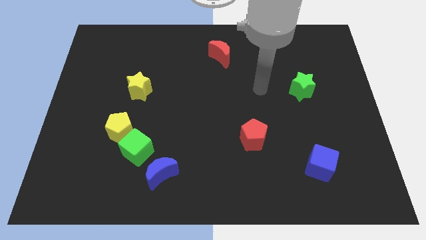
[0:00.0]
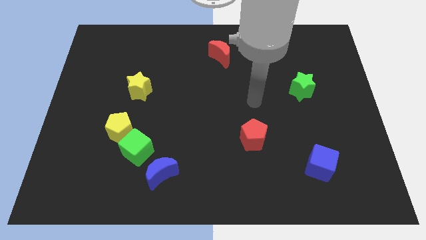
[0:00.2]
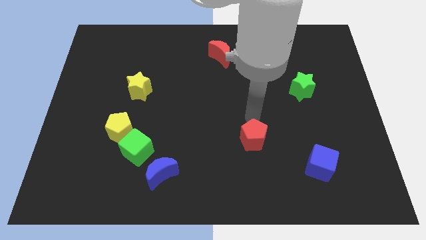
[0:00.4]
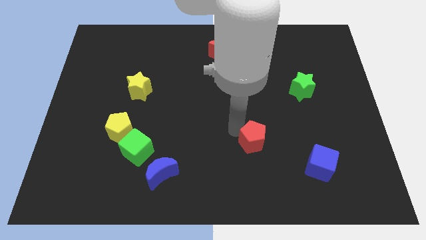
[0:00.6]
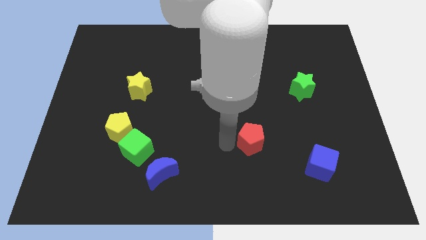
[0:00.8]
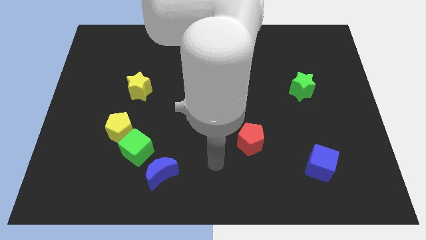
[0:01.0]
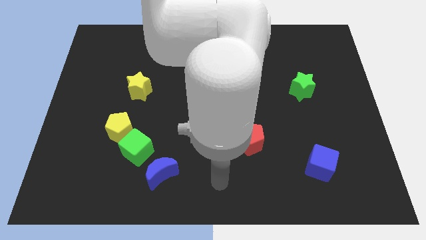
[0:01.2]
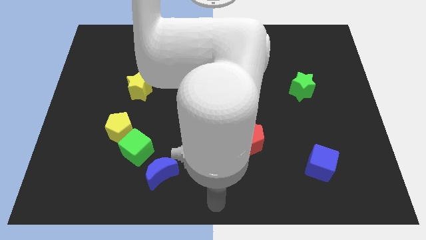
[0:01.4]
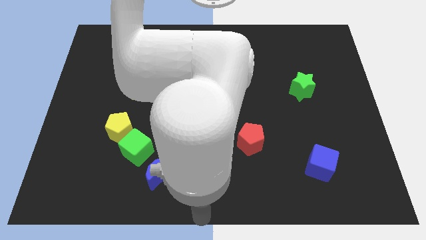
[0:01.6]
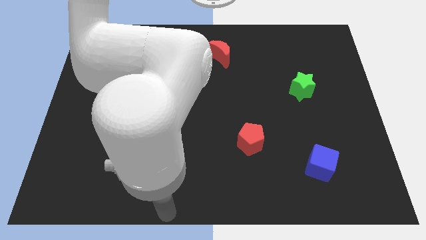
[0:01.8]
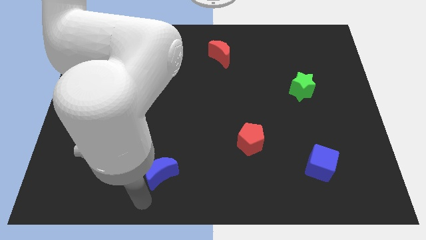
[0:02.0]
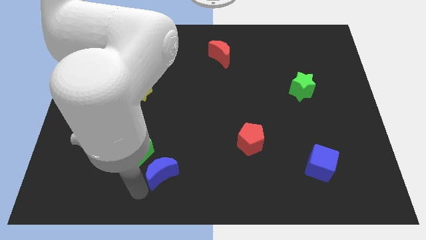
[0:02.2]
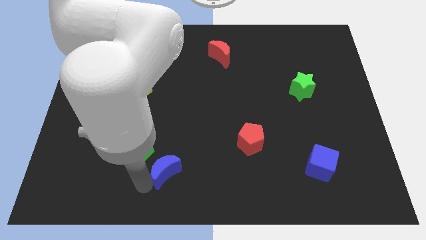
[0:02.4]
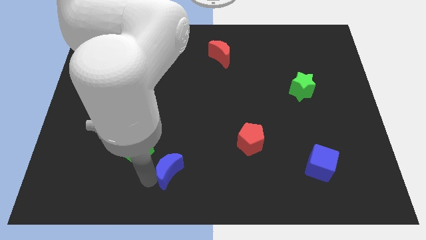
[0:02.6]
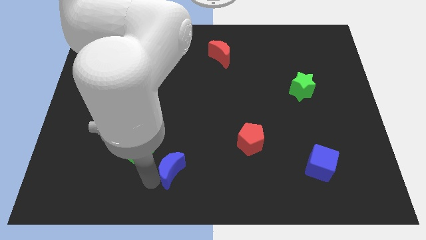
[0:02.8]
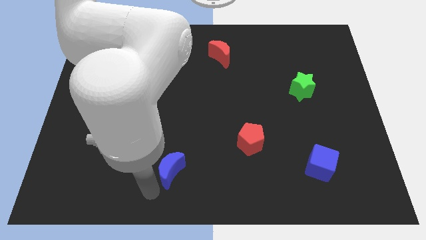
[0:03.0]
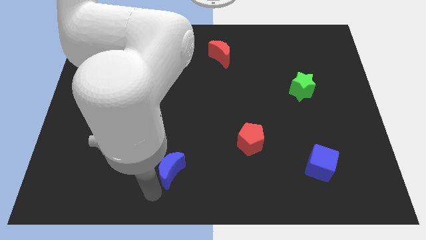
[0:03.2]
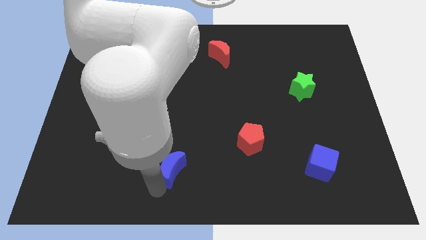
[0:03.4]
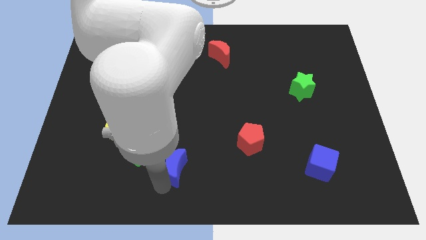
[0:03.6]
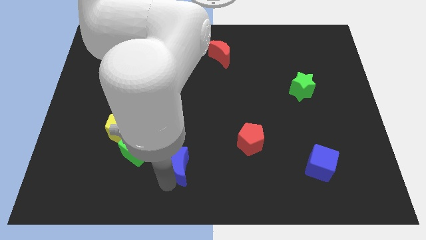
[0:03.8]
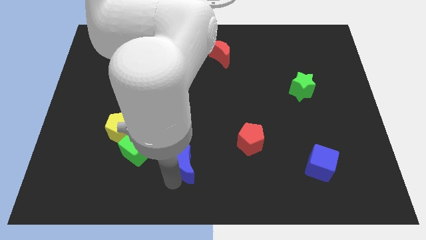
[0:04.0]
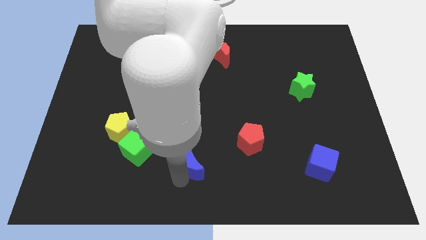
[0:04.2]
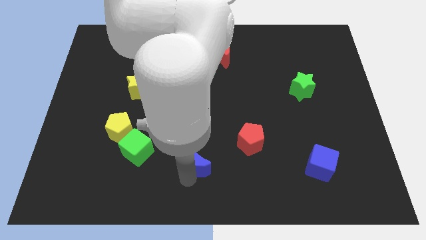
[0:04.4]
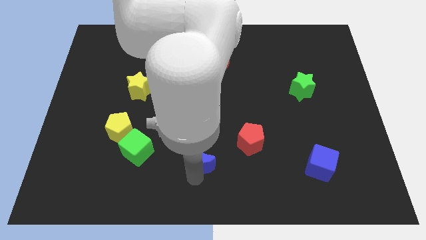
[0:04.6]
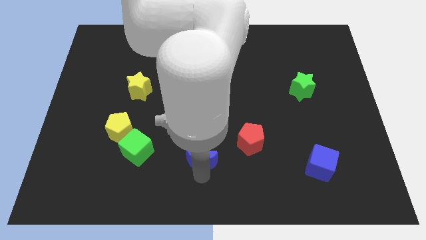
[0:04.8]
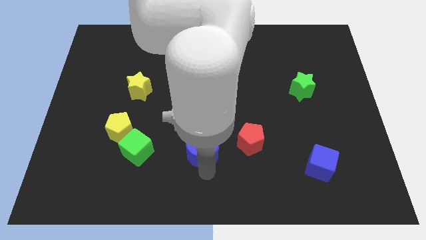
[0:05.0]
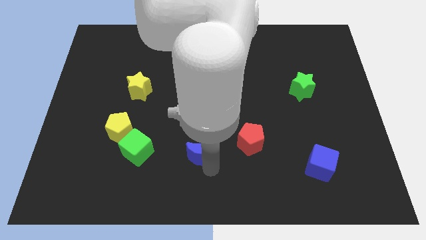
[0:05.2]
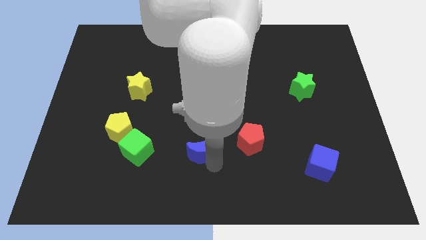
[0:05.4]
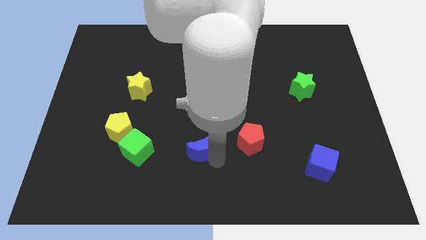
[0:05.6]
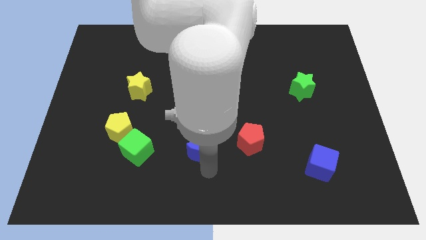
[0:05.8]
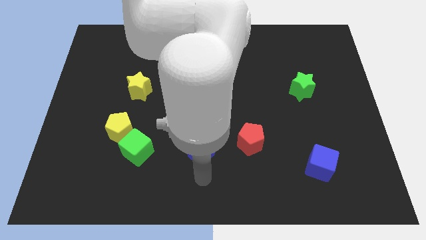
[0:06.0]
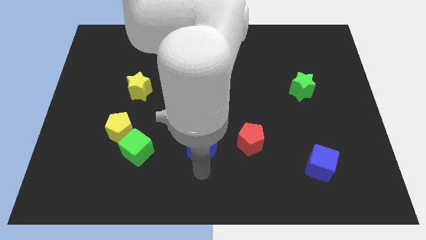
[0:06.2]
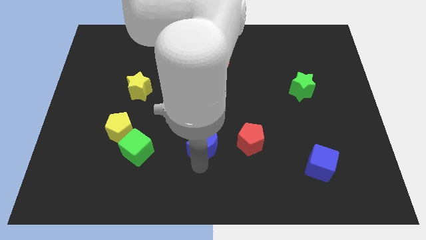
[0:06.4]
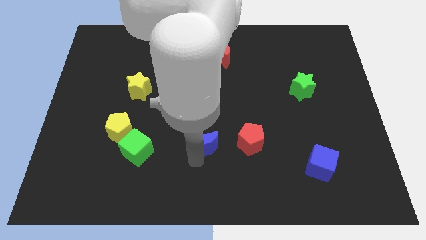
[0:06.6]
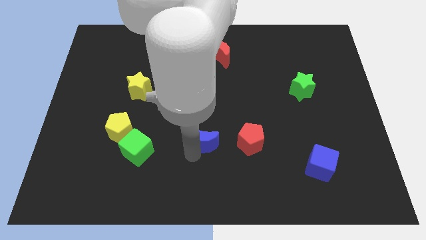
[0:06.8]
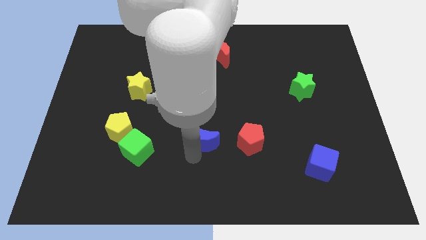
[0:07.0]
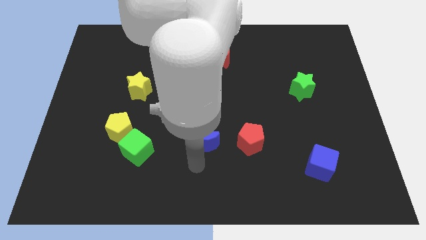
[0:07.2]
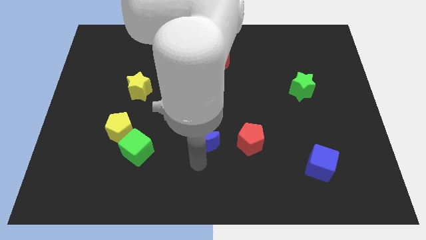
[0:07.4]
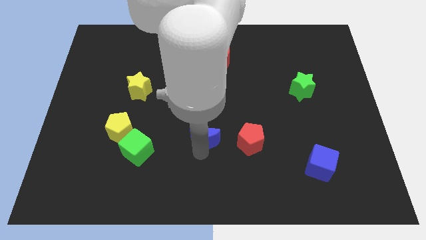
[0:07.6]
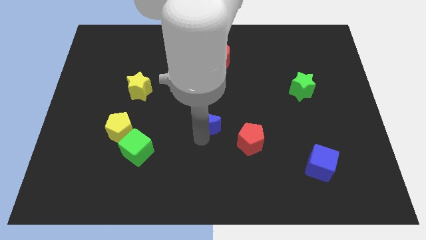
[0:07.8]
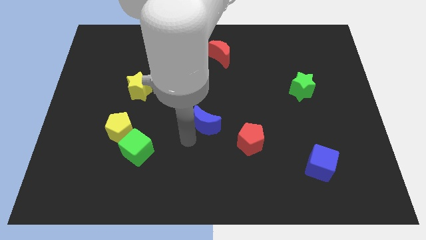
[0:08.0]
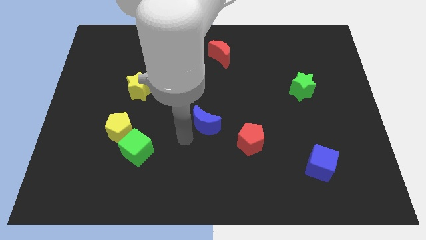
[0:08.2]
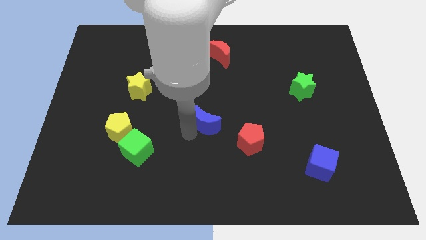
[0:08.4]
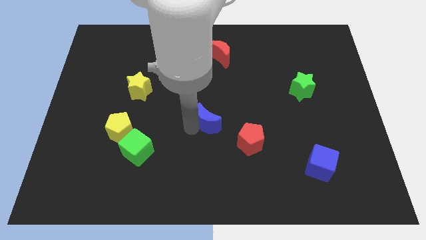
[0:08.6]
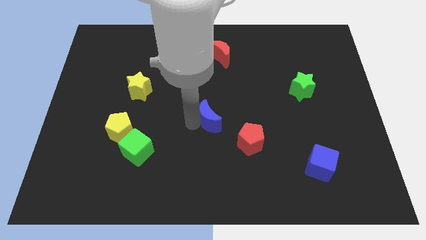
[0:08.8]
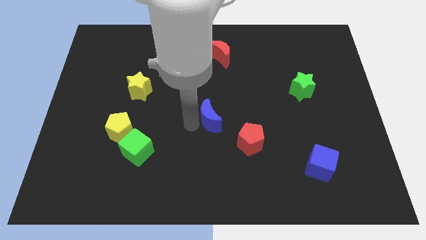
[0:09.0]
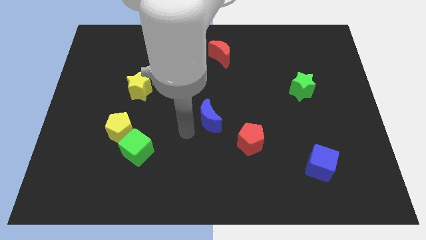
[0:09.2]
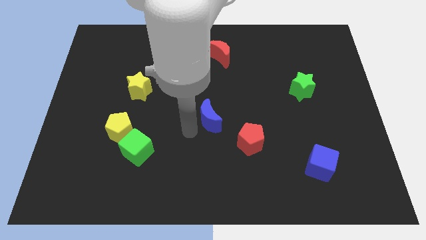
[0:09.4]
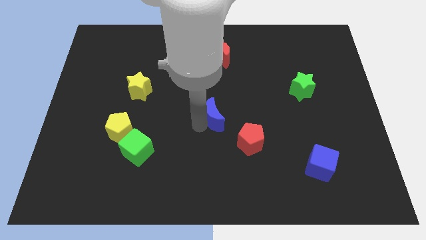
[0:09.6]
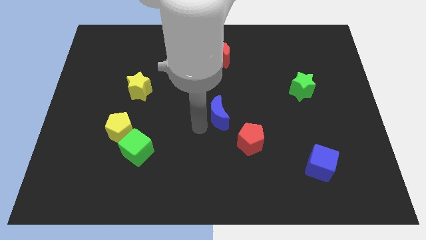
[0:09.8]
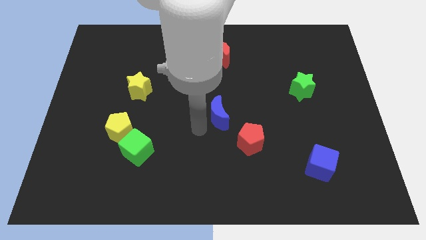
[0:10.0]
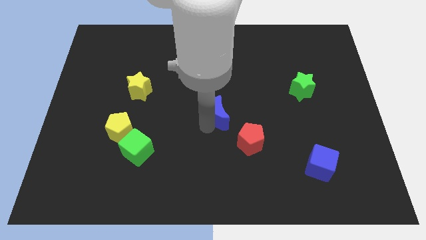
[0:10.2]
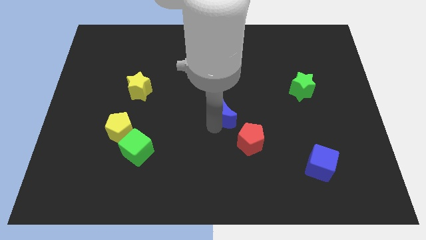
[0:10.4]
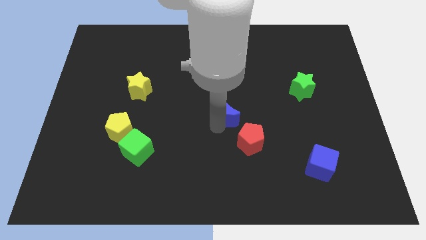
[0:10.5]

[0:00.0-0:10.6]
slide the blue moon diagonally up and right

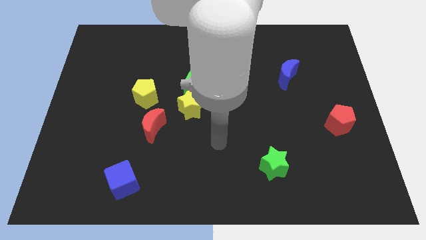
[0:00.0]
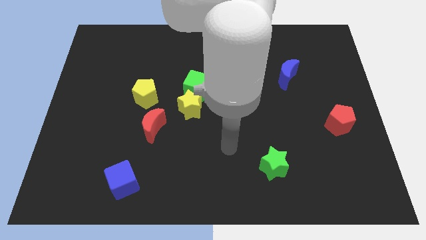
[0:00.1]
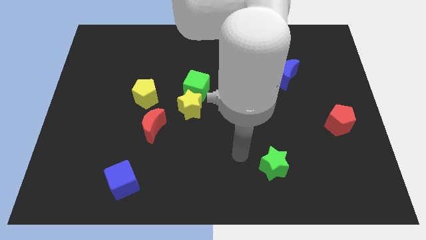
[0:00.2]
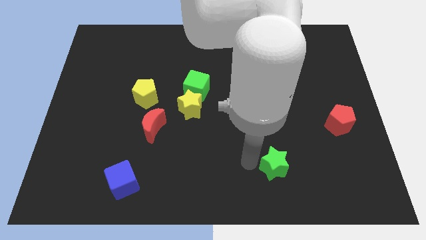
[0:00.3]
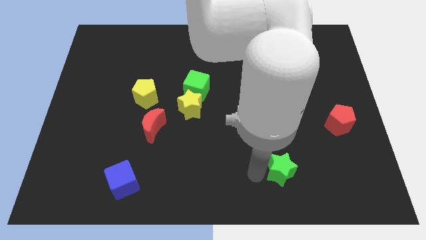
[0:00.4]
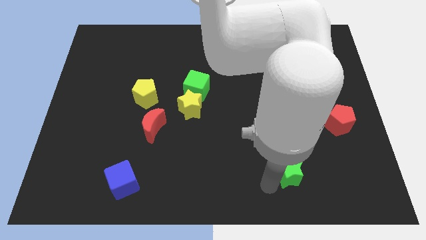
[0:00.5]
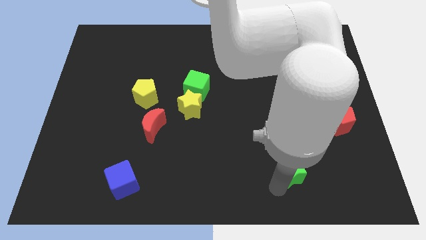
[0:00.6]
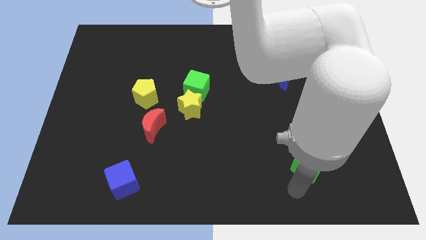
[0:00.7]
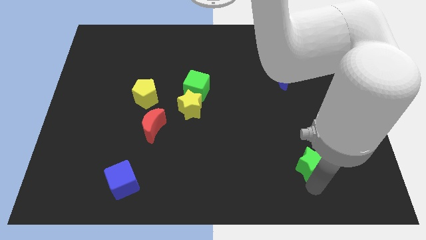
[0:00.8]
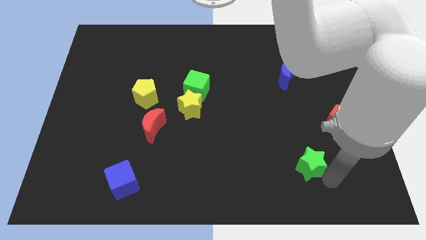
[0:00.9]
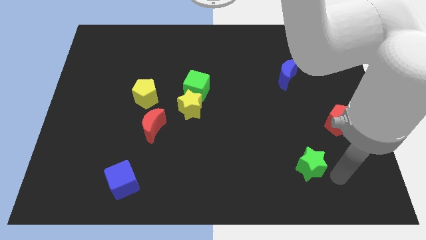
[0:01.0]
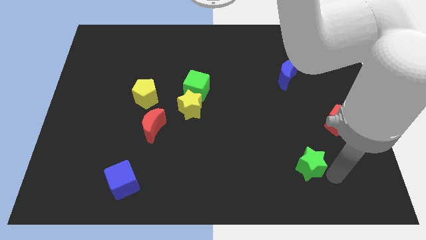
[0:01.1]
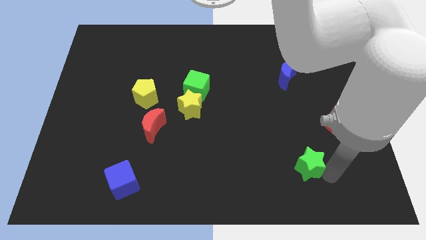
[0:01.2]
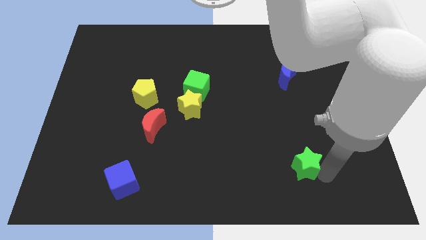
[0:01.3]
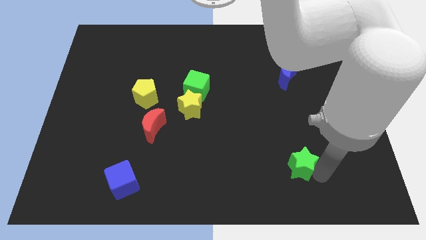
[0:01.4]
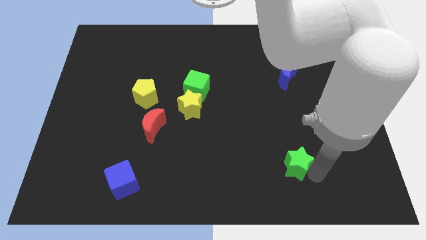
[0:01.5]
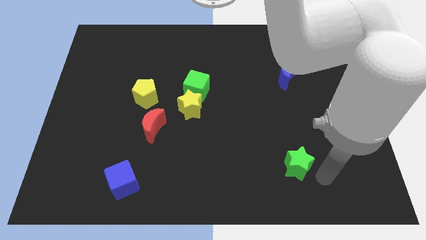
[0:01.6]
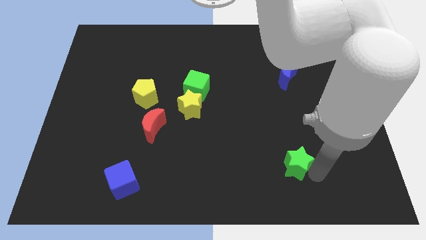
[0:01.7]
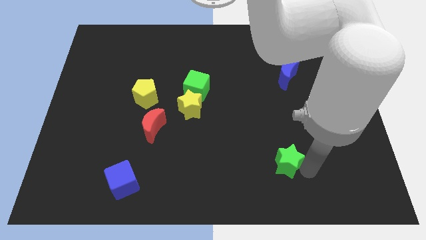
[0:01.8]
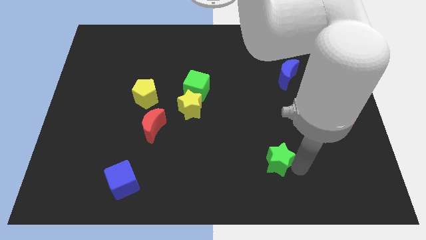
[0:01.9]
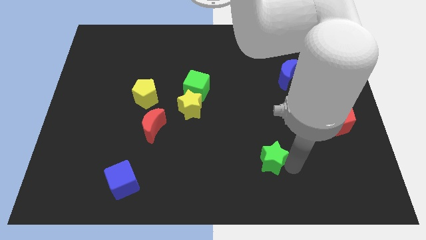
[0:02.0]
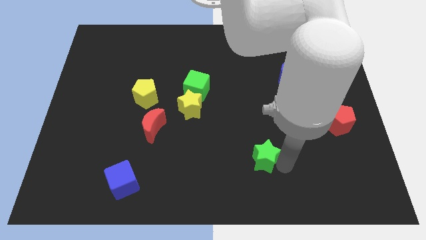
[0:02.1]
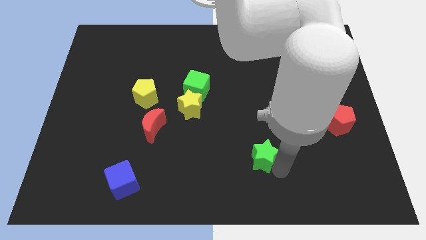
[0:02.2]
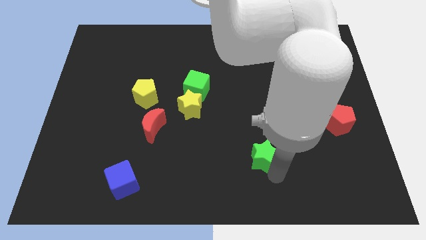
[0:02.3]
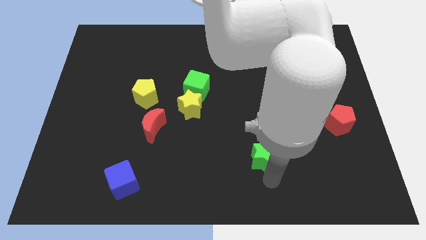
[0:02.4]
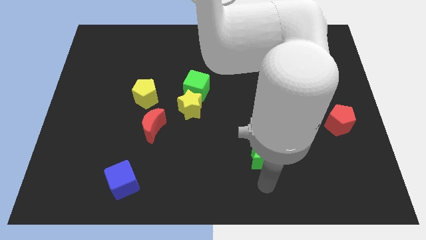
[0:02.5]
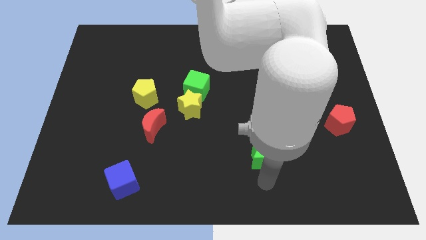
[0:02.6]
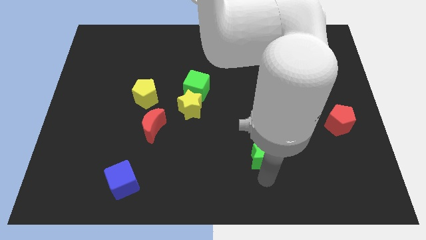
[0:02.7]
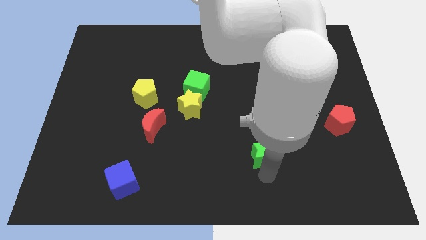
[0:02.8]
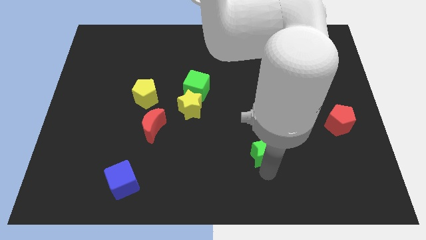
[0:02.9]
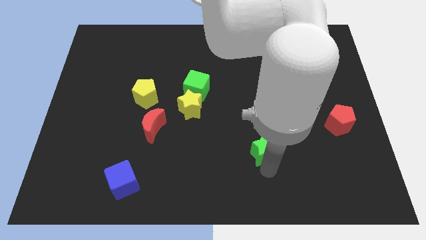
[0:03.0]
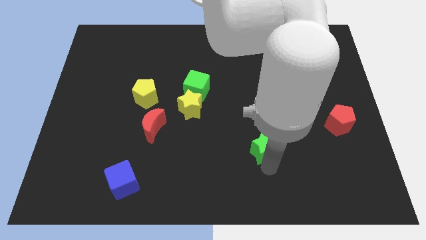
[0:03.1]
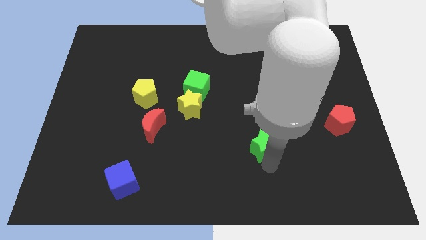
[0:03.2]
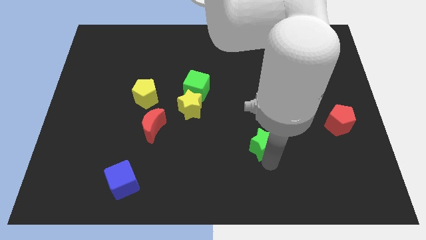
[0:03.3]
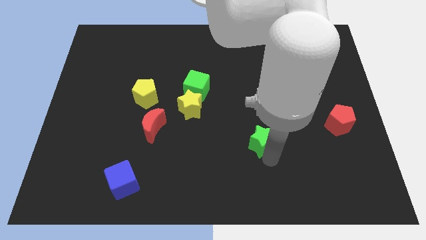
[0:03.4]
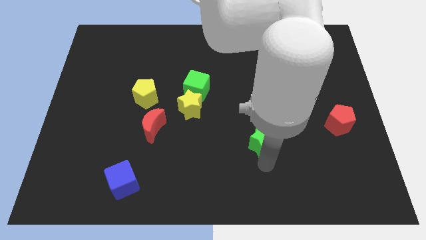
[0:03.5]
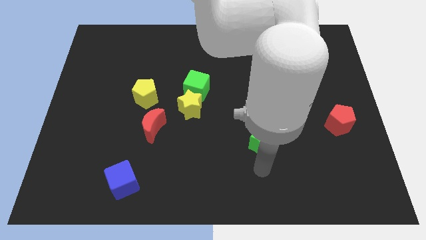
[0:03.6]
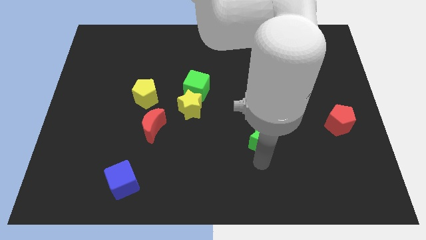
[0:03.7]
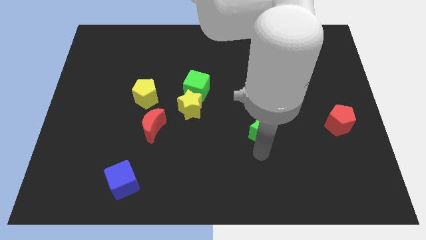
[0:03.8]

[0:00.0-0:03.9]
slide the green star up a little
